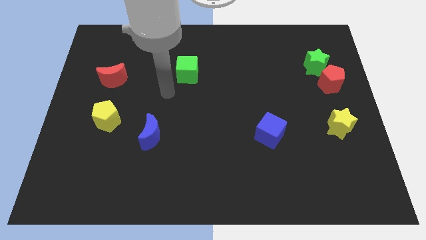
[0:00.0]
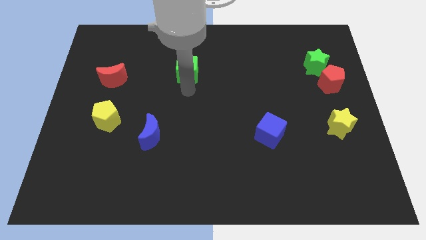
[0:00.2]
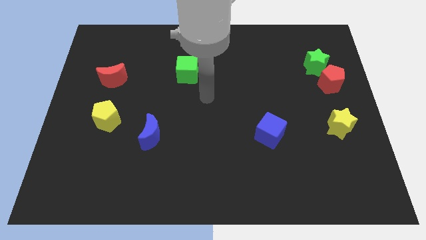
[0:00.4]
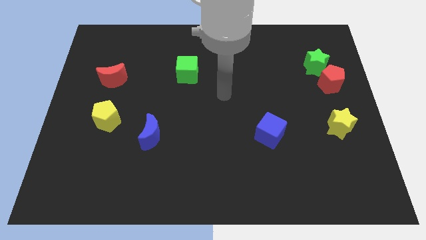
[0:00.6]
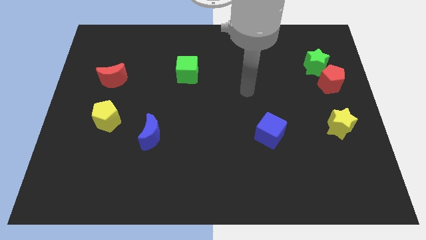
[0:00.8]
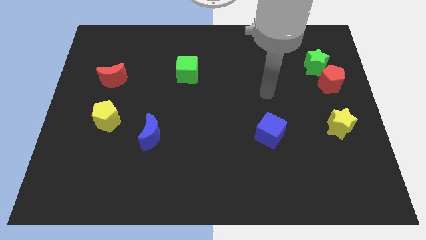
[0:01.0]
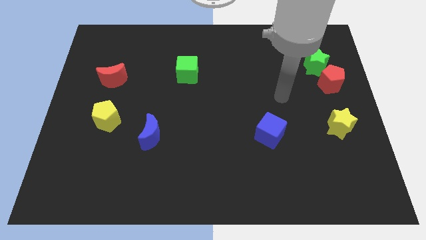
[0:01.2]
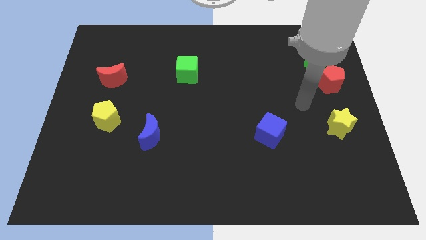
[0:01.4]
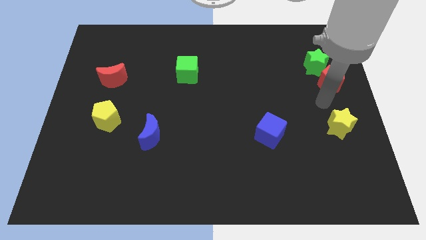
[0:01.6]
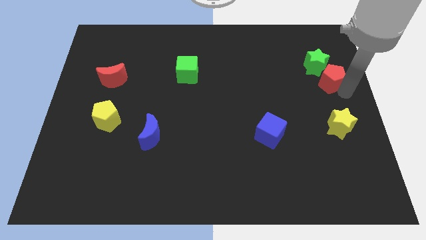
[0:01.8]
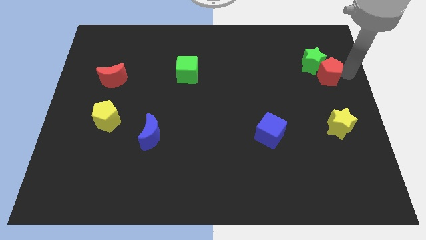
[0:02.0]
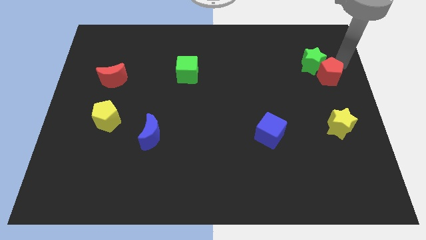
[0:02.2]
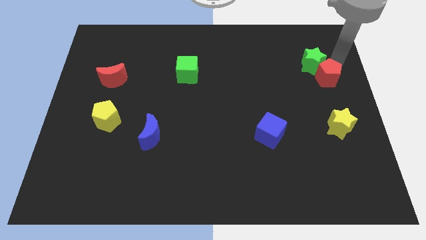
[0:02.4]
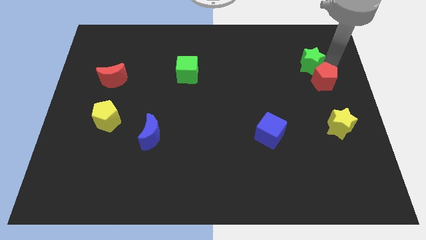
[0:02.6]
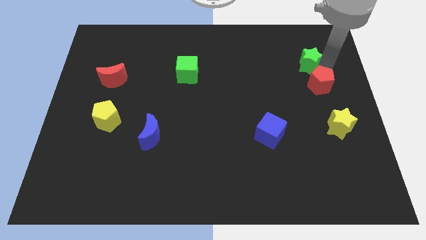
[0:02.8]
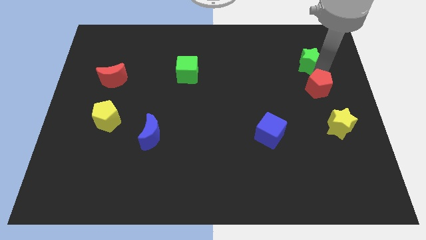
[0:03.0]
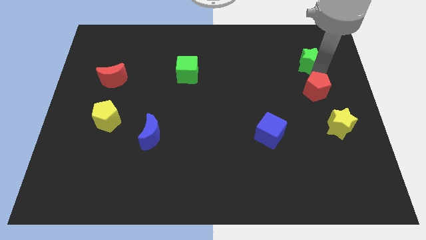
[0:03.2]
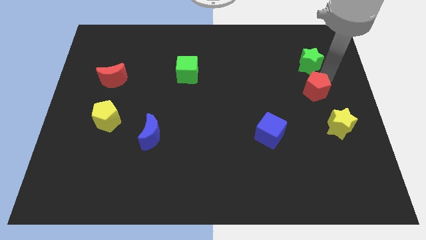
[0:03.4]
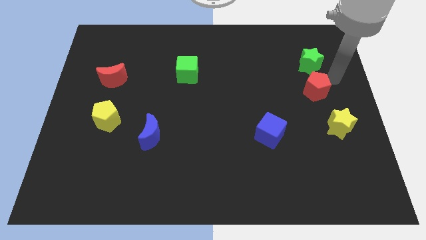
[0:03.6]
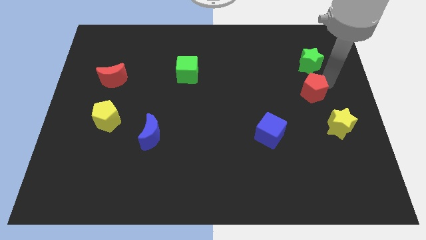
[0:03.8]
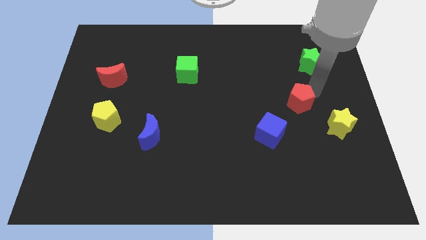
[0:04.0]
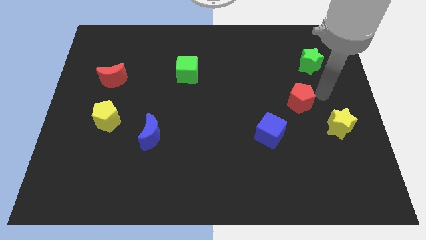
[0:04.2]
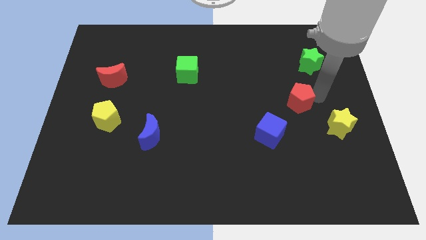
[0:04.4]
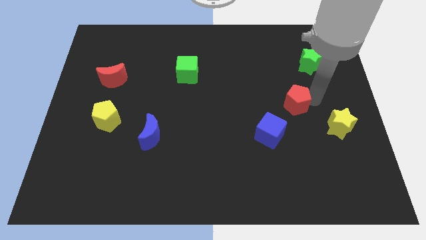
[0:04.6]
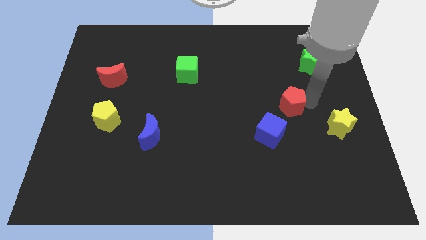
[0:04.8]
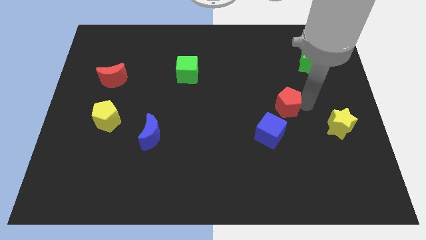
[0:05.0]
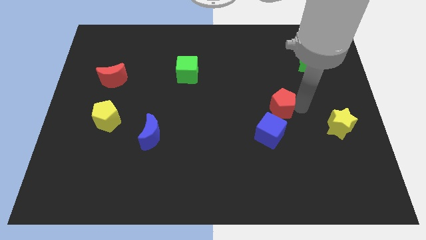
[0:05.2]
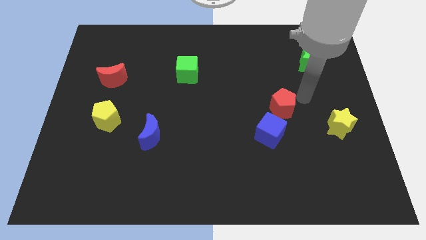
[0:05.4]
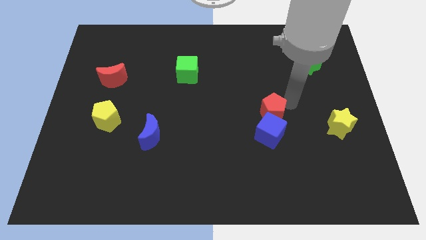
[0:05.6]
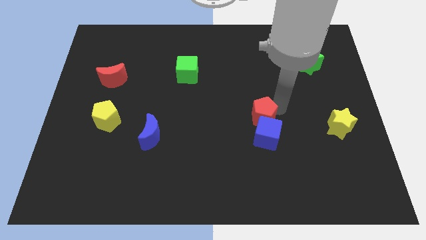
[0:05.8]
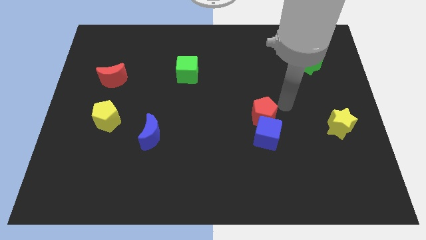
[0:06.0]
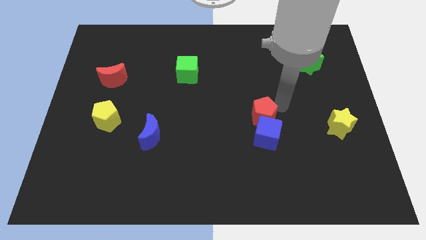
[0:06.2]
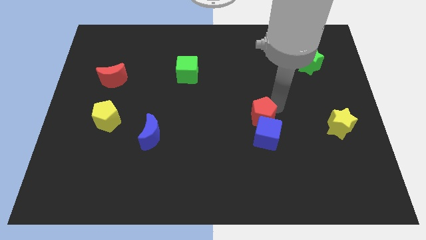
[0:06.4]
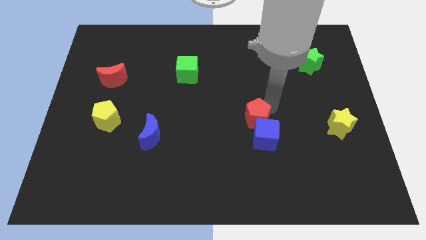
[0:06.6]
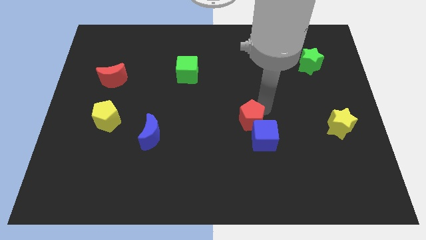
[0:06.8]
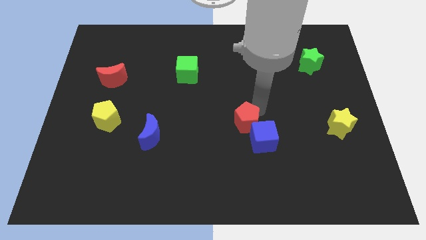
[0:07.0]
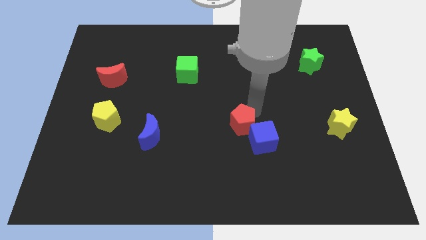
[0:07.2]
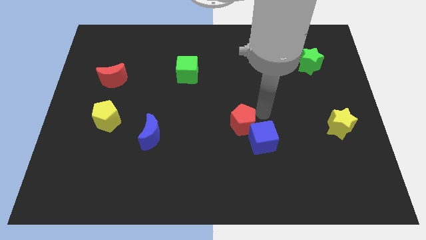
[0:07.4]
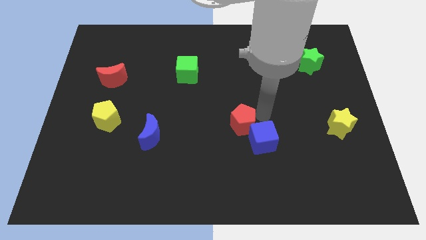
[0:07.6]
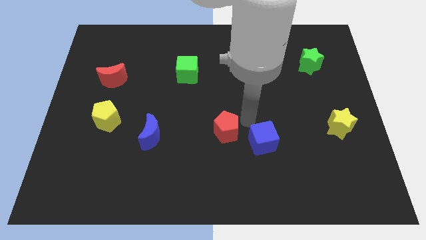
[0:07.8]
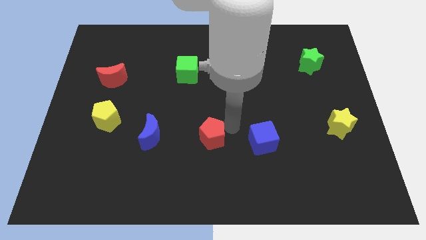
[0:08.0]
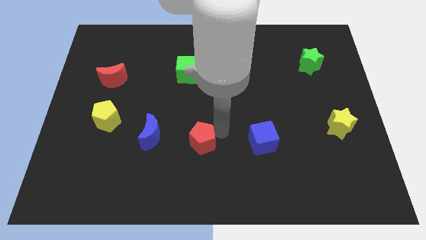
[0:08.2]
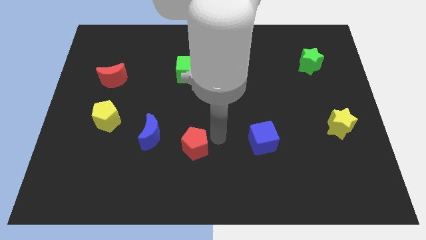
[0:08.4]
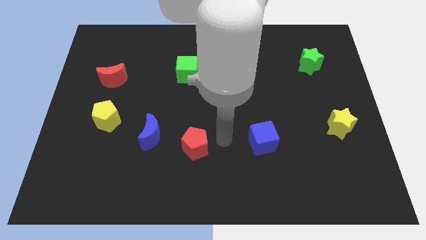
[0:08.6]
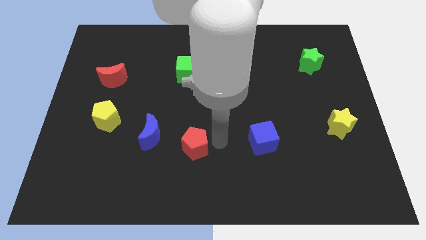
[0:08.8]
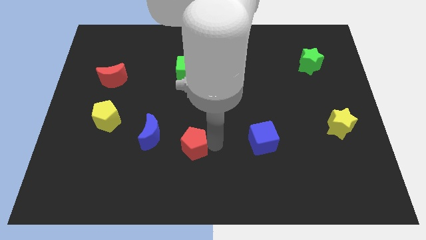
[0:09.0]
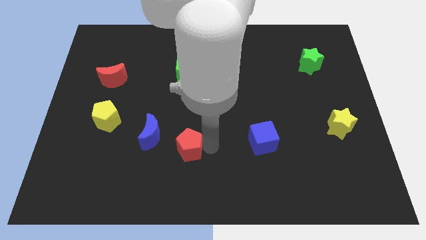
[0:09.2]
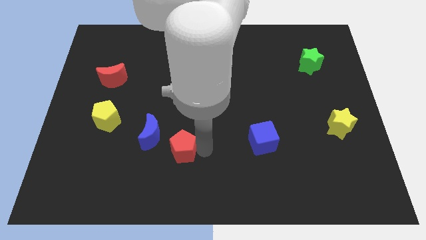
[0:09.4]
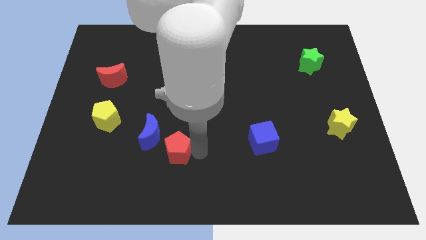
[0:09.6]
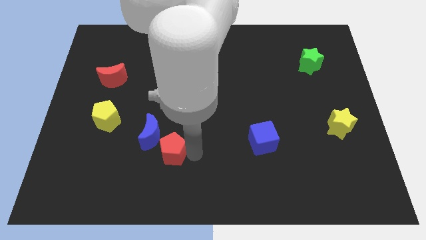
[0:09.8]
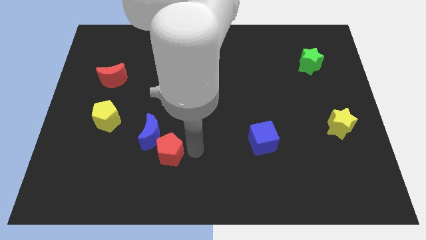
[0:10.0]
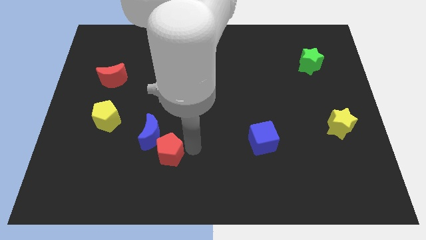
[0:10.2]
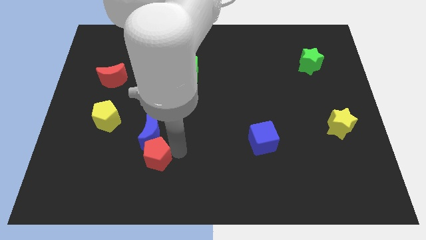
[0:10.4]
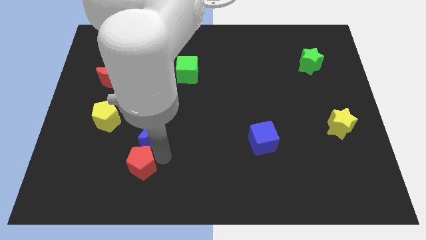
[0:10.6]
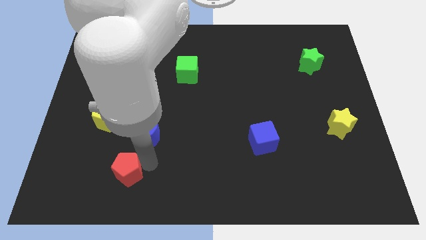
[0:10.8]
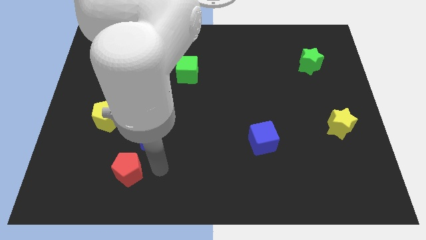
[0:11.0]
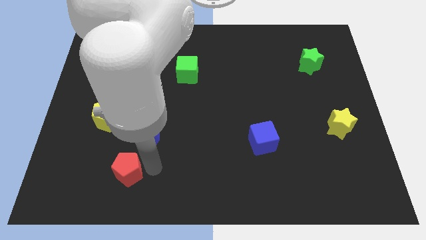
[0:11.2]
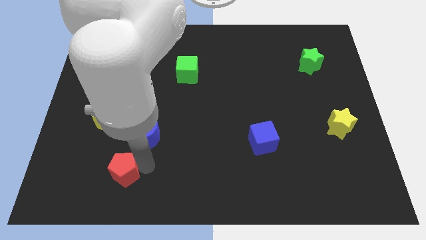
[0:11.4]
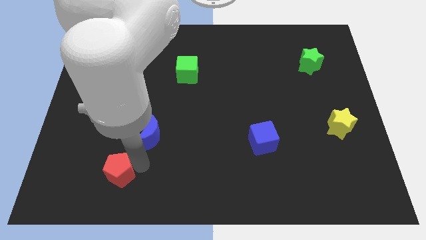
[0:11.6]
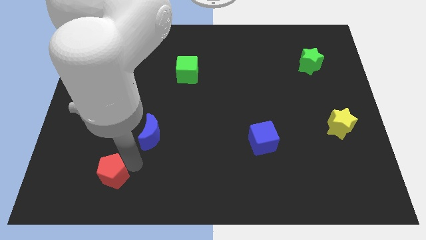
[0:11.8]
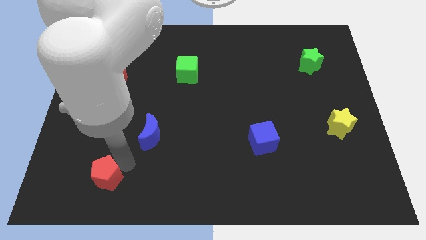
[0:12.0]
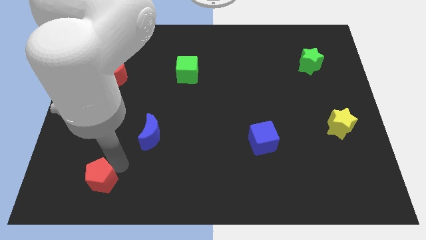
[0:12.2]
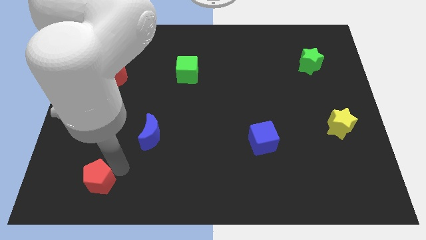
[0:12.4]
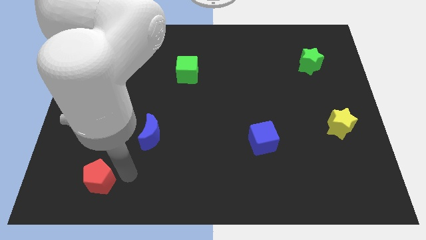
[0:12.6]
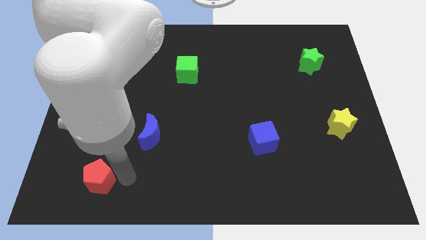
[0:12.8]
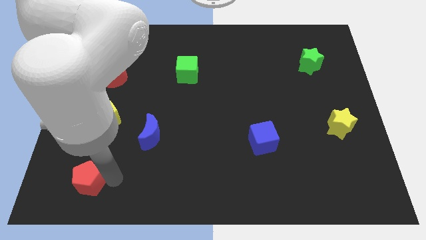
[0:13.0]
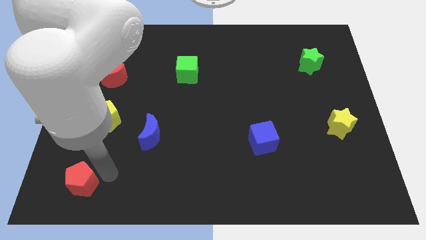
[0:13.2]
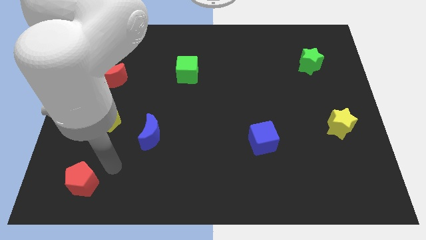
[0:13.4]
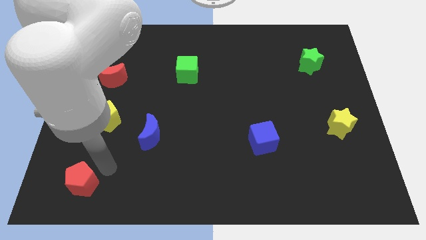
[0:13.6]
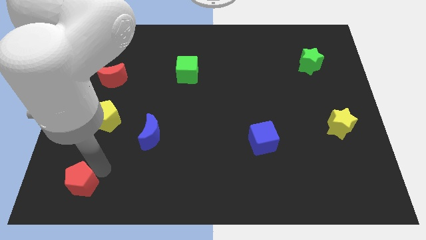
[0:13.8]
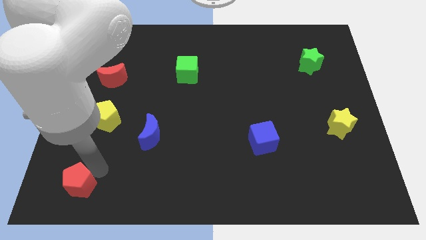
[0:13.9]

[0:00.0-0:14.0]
slide the red pentagon to the bottom left corner

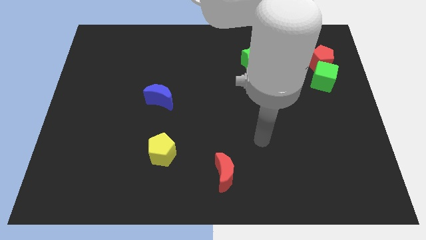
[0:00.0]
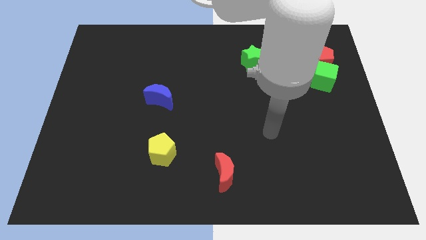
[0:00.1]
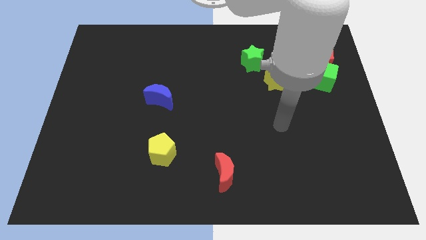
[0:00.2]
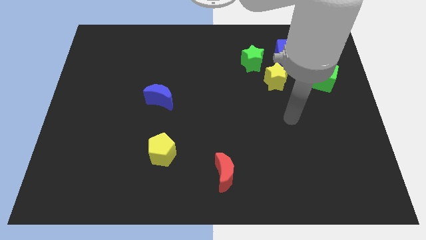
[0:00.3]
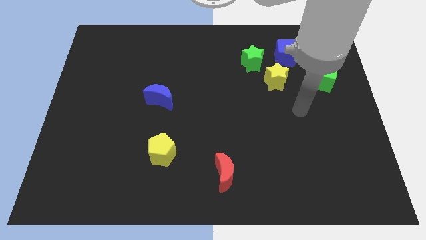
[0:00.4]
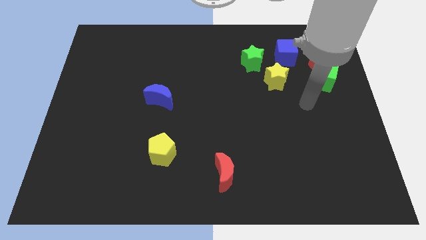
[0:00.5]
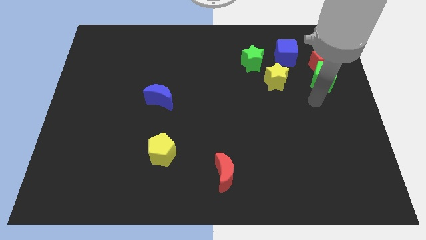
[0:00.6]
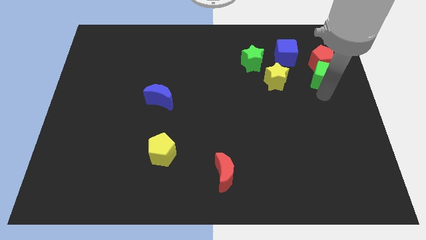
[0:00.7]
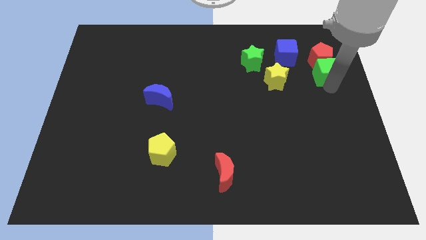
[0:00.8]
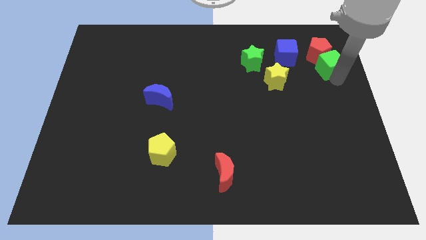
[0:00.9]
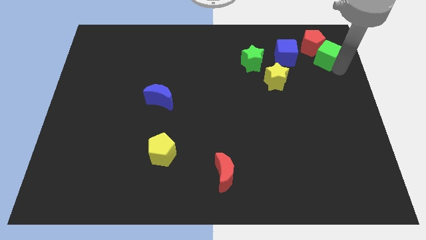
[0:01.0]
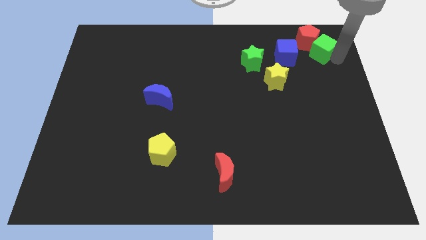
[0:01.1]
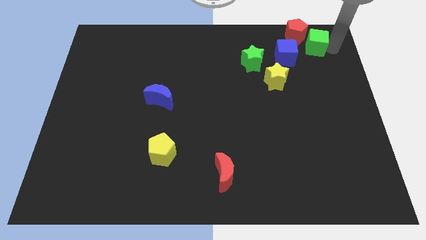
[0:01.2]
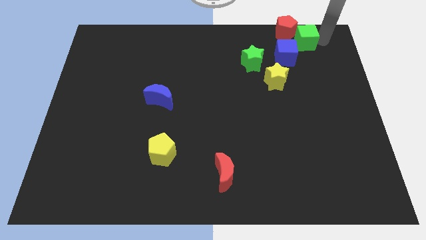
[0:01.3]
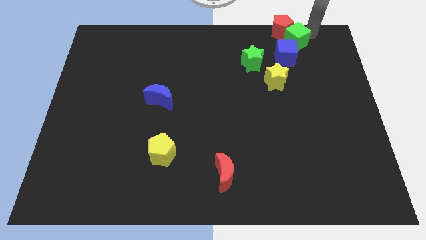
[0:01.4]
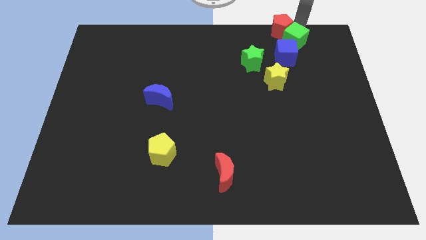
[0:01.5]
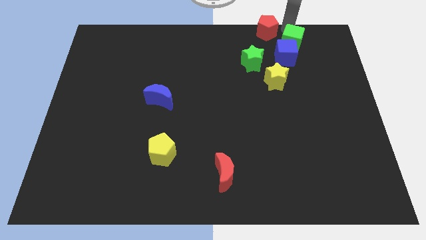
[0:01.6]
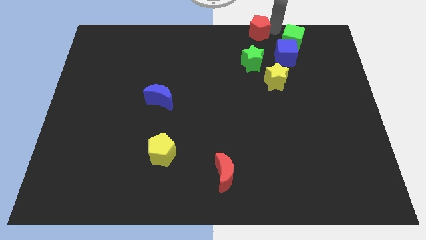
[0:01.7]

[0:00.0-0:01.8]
slide the red pentagon to the towards your base
